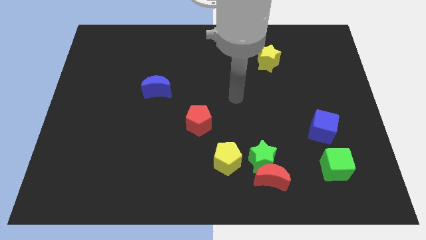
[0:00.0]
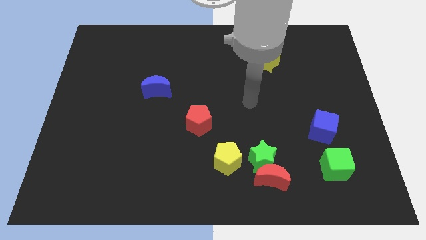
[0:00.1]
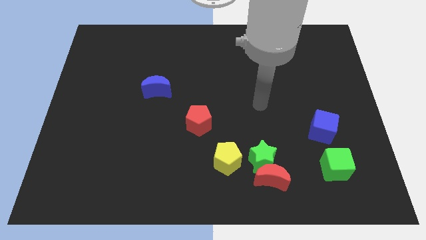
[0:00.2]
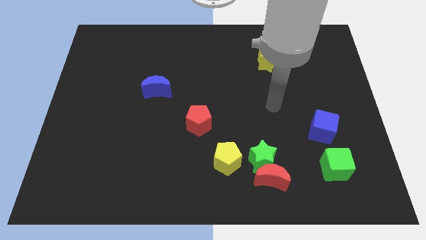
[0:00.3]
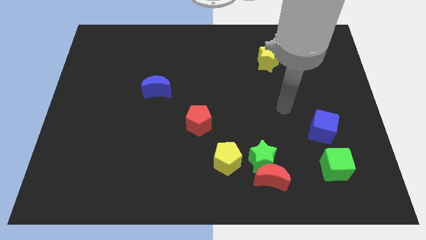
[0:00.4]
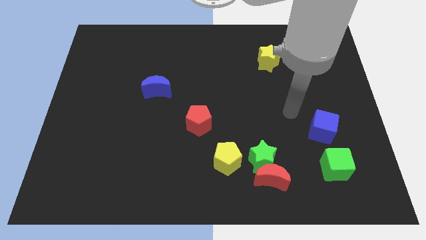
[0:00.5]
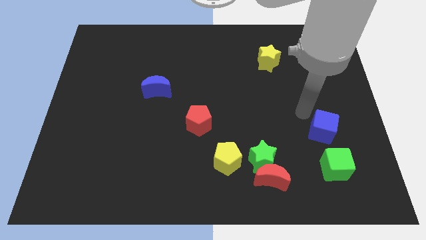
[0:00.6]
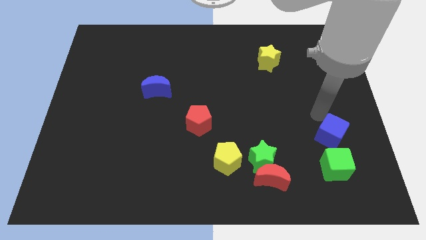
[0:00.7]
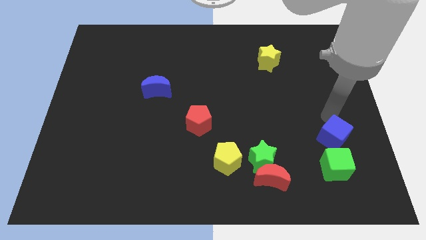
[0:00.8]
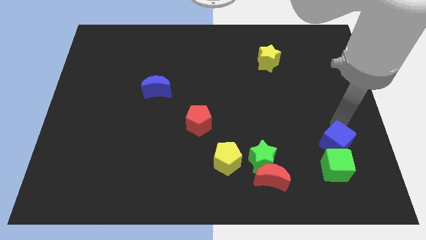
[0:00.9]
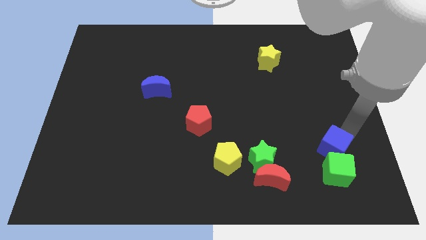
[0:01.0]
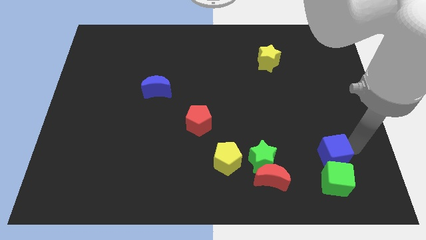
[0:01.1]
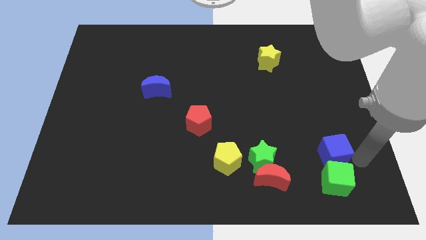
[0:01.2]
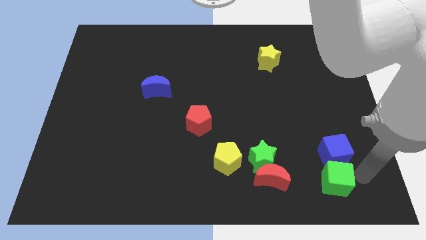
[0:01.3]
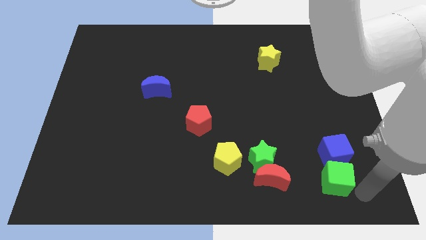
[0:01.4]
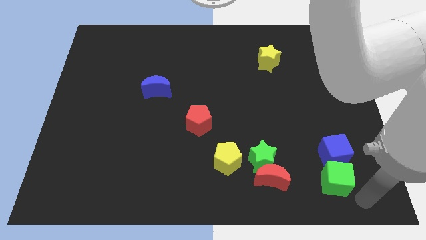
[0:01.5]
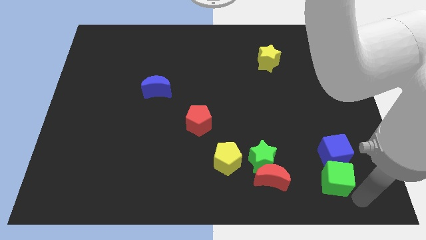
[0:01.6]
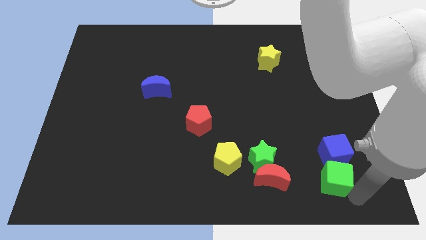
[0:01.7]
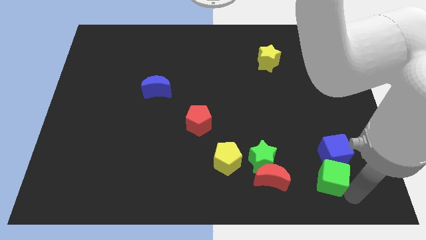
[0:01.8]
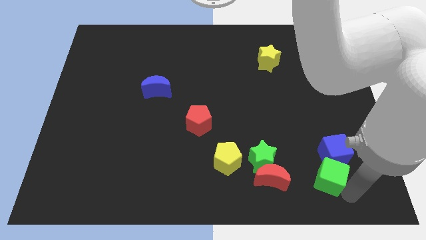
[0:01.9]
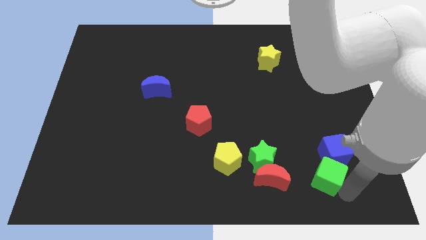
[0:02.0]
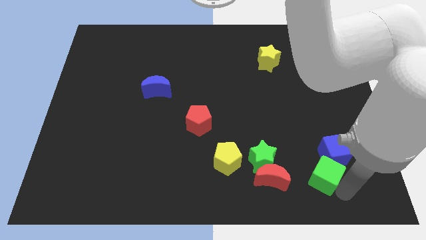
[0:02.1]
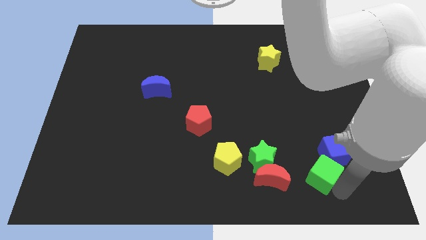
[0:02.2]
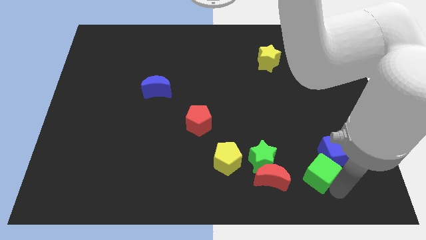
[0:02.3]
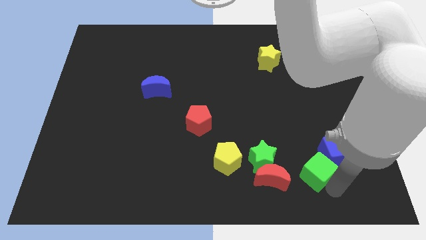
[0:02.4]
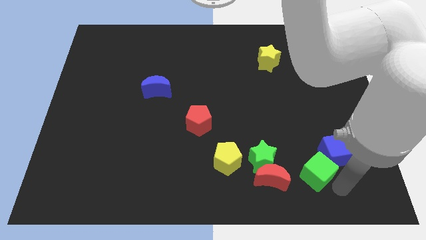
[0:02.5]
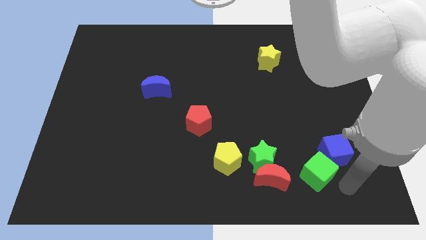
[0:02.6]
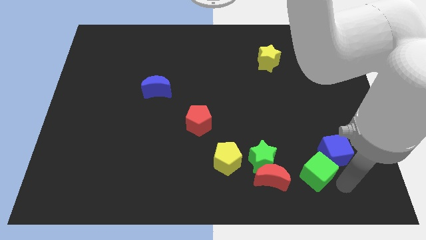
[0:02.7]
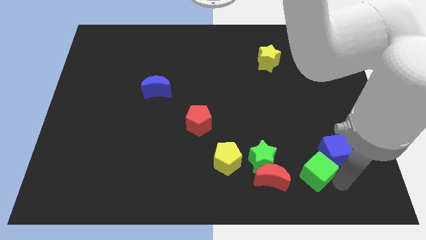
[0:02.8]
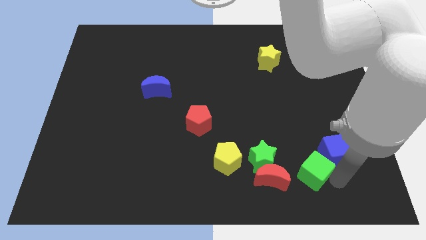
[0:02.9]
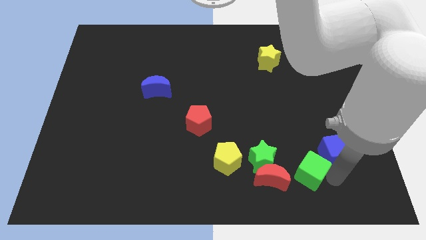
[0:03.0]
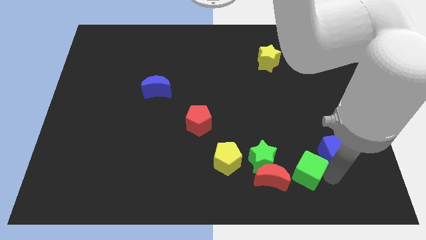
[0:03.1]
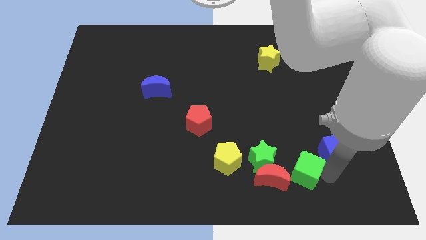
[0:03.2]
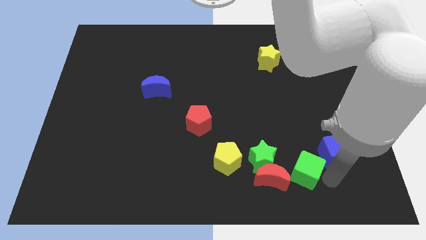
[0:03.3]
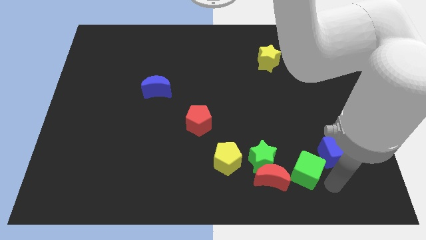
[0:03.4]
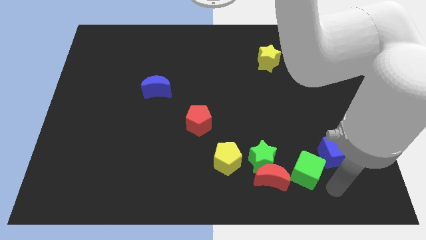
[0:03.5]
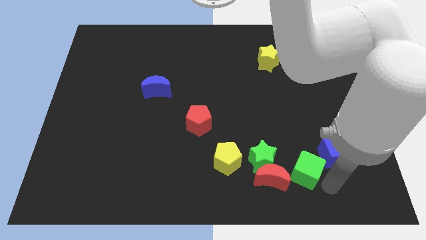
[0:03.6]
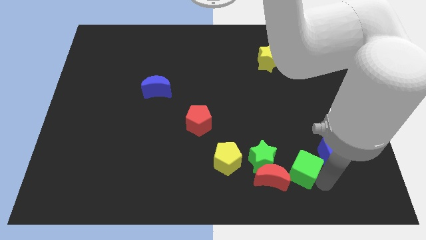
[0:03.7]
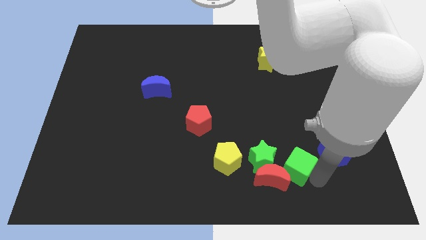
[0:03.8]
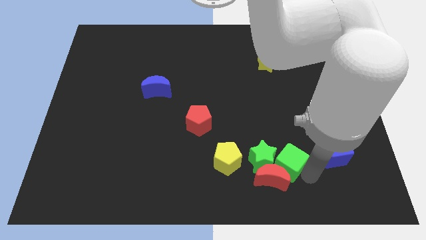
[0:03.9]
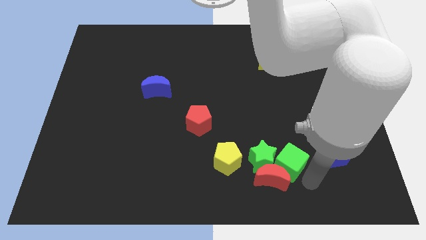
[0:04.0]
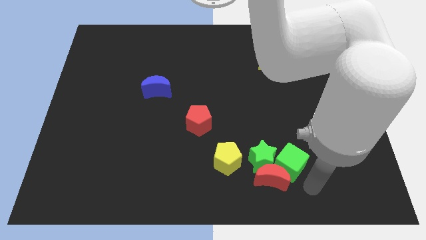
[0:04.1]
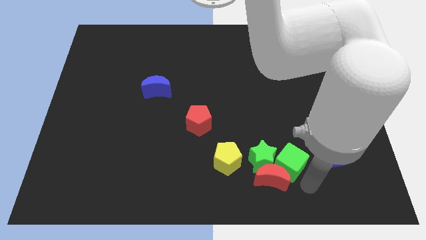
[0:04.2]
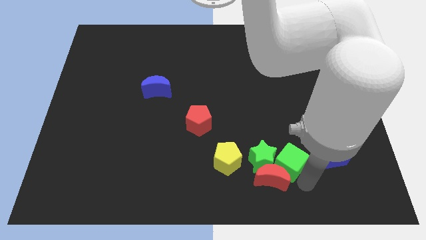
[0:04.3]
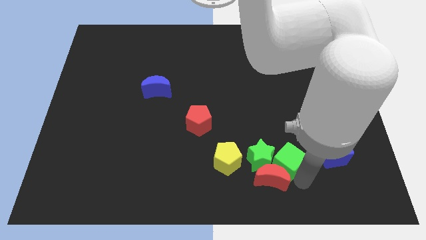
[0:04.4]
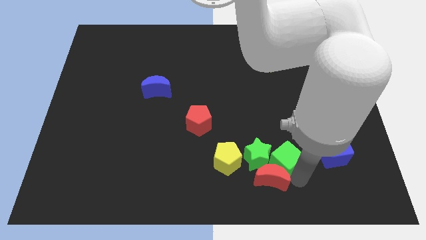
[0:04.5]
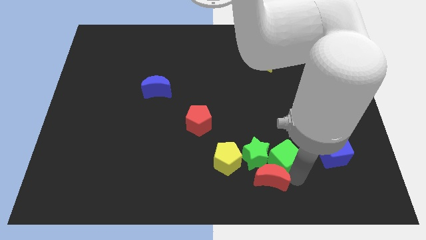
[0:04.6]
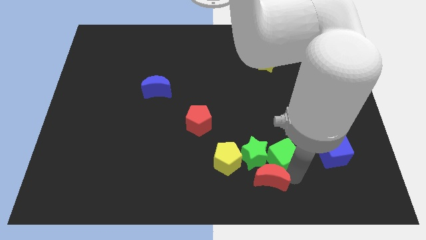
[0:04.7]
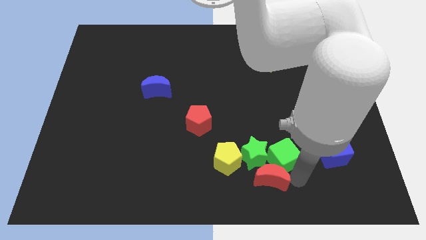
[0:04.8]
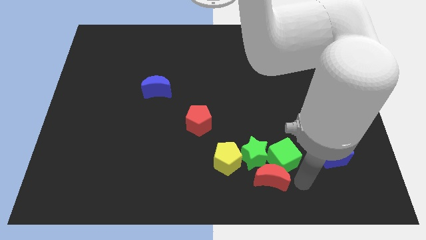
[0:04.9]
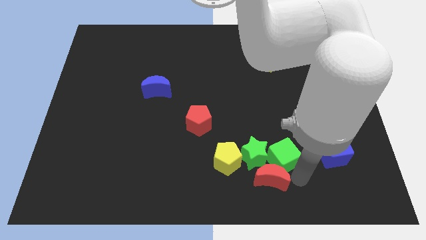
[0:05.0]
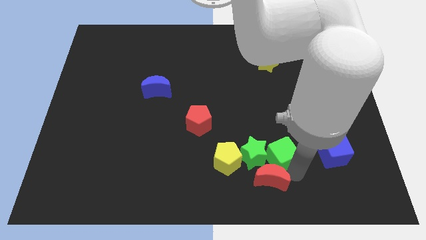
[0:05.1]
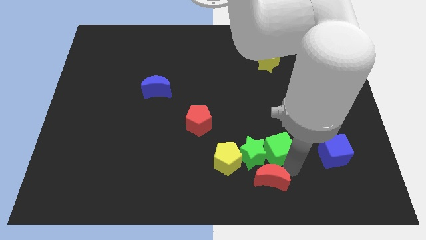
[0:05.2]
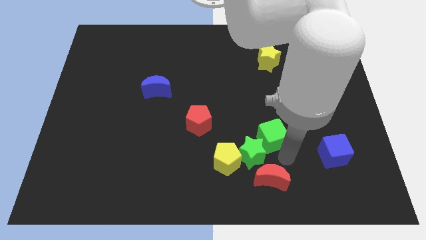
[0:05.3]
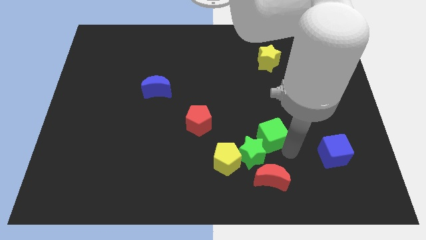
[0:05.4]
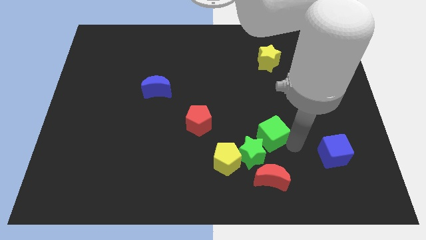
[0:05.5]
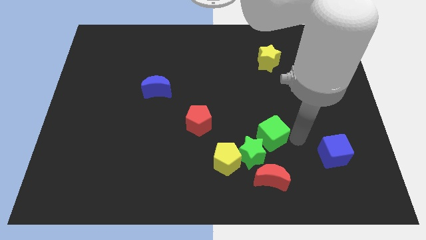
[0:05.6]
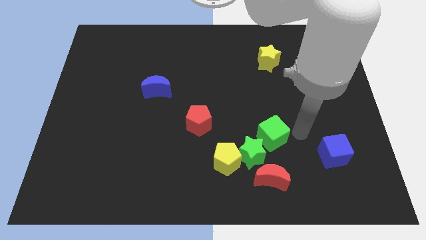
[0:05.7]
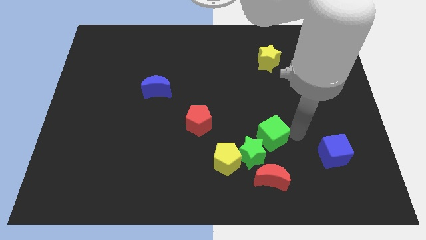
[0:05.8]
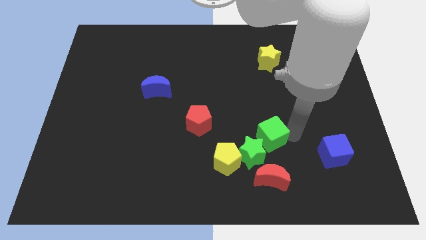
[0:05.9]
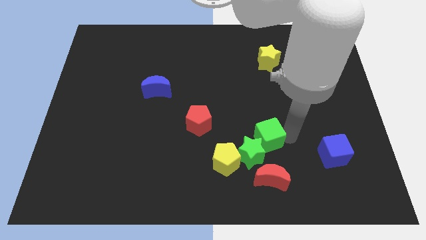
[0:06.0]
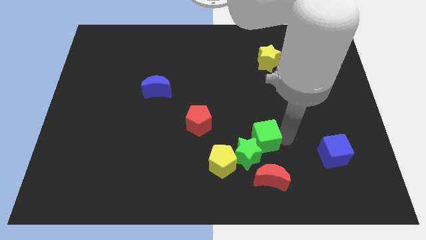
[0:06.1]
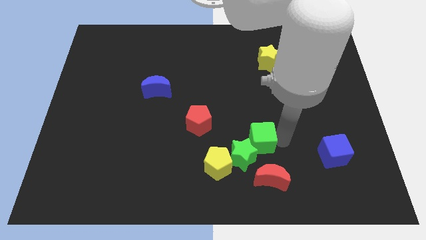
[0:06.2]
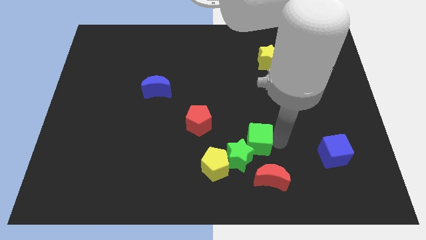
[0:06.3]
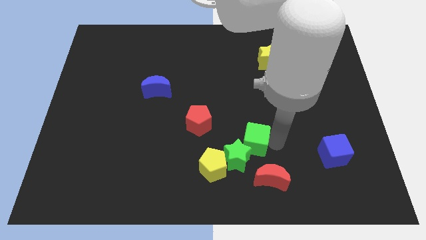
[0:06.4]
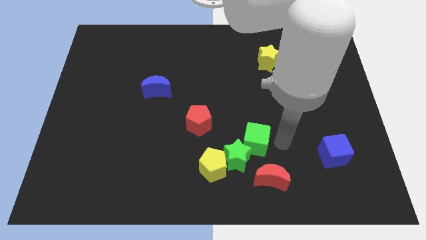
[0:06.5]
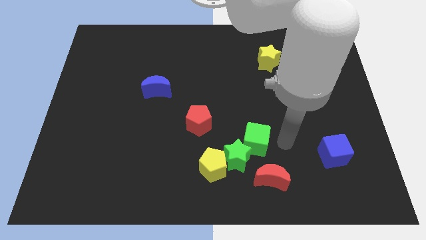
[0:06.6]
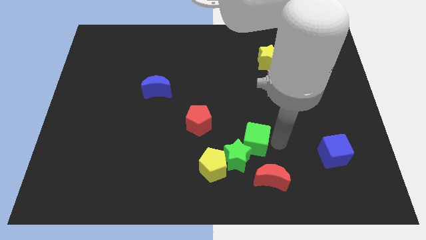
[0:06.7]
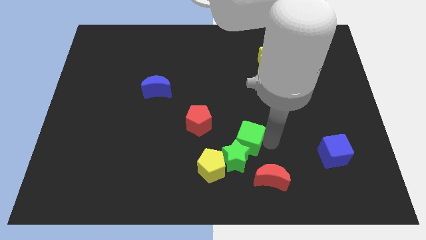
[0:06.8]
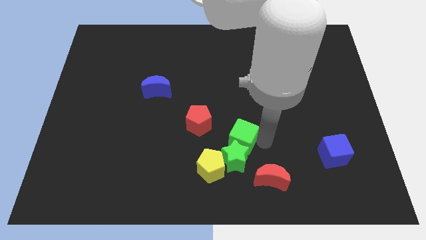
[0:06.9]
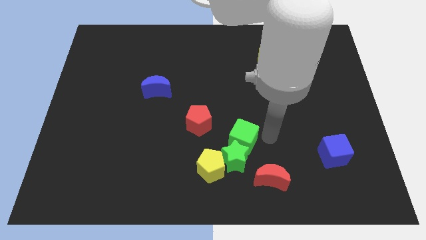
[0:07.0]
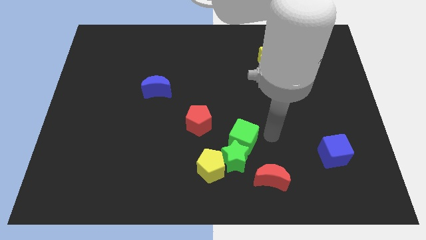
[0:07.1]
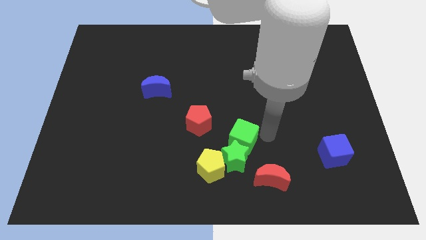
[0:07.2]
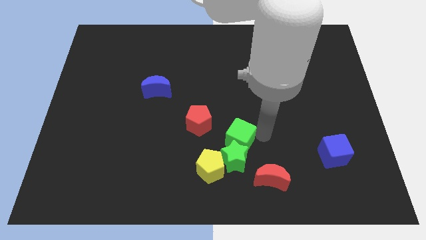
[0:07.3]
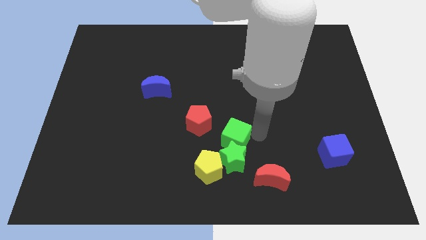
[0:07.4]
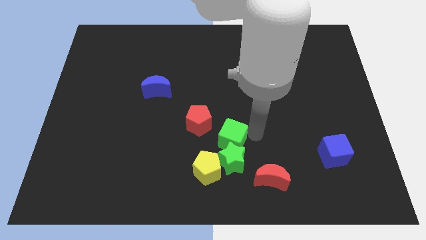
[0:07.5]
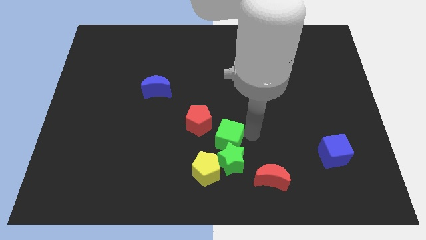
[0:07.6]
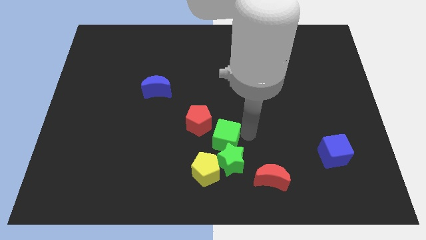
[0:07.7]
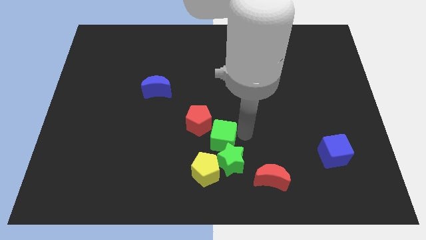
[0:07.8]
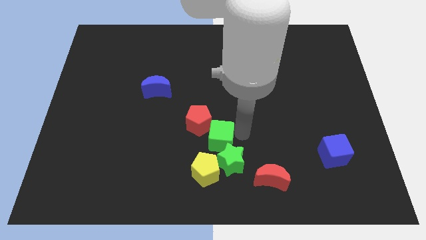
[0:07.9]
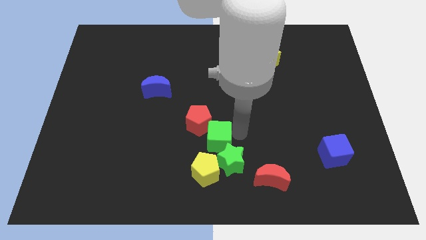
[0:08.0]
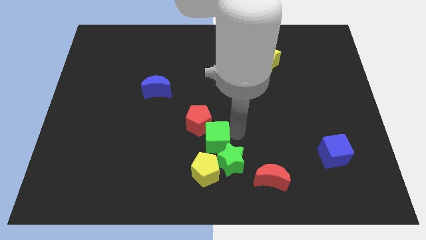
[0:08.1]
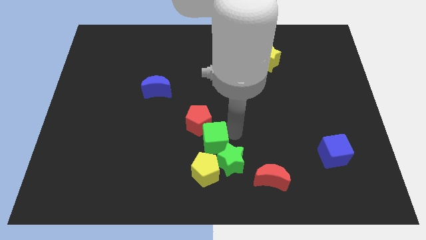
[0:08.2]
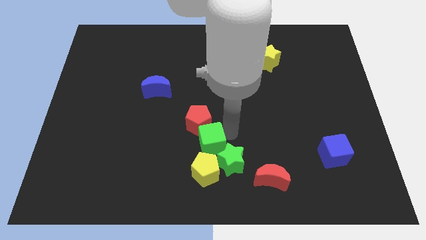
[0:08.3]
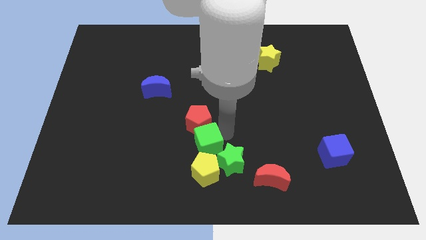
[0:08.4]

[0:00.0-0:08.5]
move the green cube just left of the green star
